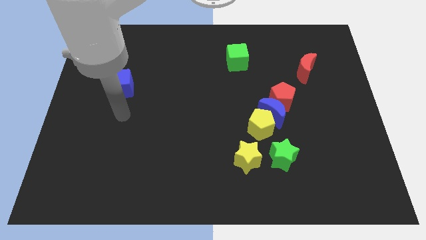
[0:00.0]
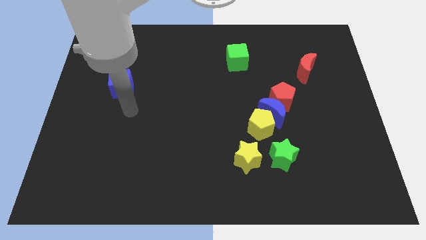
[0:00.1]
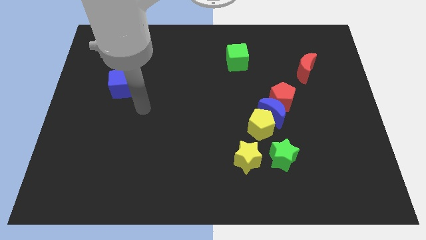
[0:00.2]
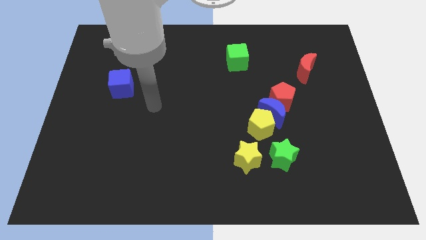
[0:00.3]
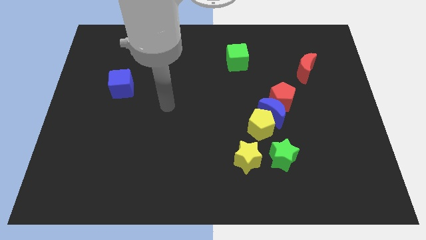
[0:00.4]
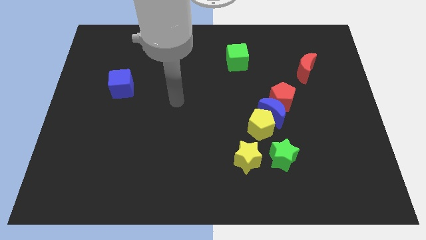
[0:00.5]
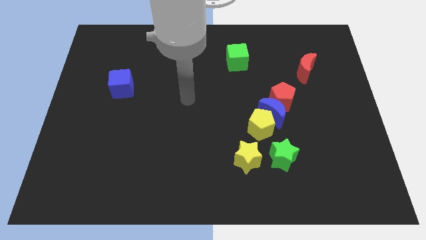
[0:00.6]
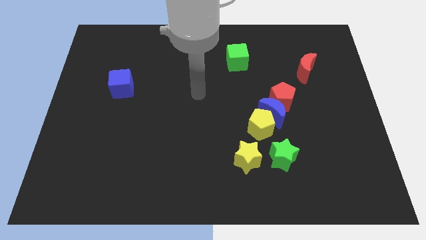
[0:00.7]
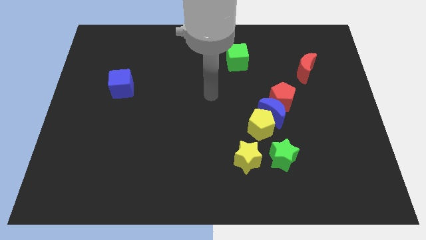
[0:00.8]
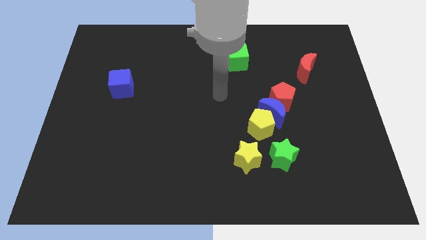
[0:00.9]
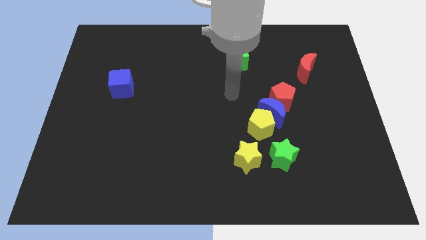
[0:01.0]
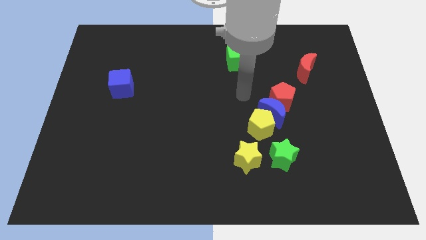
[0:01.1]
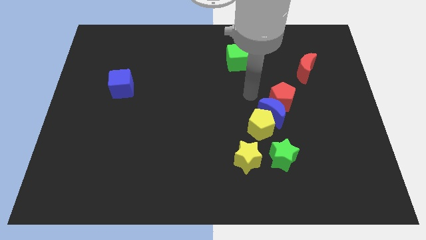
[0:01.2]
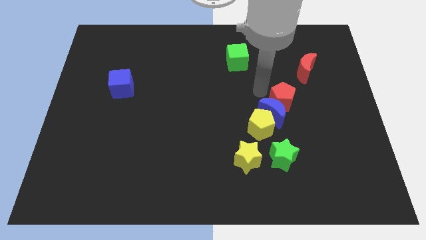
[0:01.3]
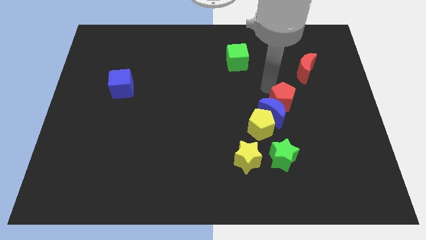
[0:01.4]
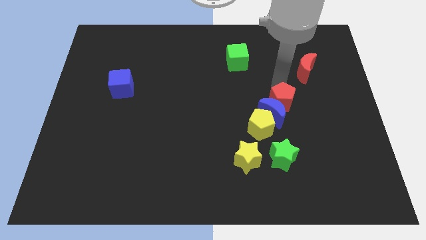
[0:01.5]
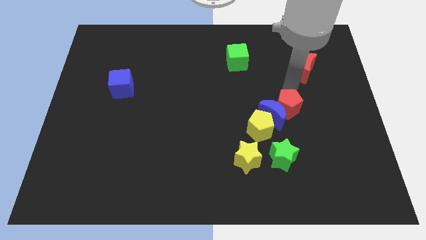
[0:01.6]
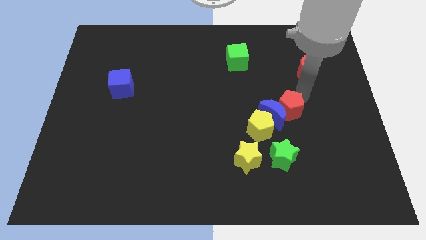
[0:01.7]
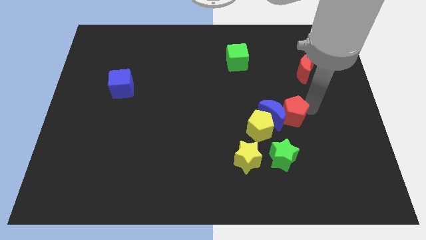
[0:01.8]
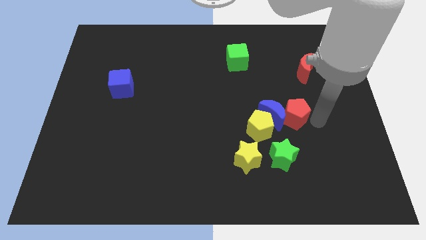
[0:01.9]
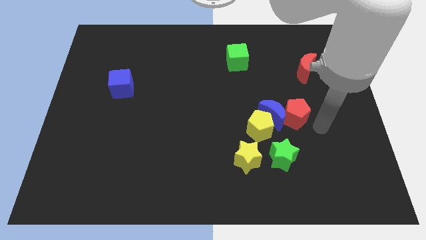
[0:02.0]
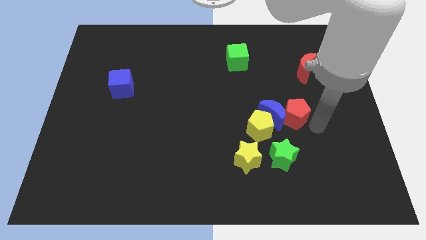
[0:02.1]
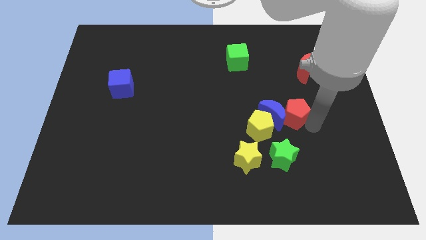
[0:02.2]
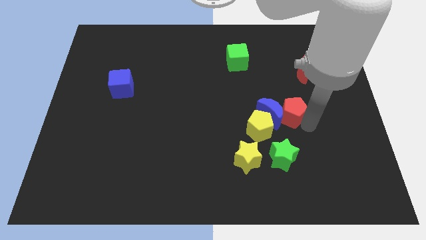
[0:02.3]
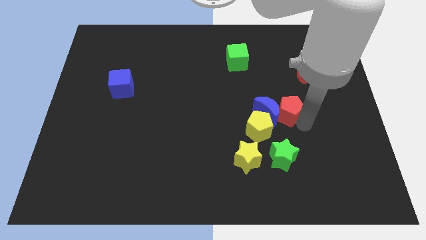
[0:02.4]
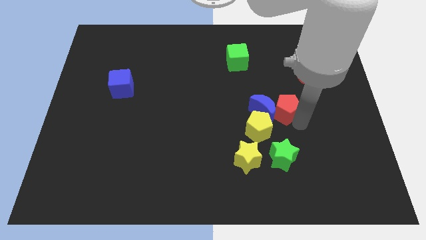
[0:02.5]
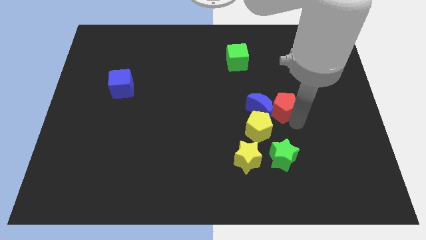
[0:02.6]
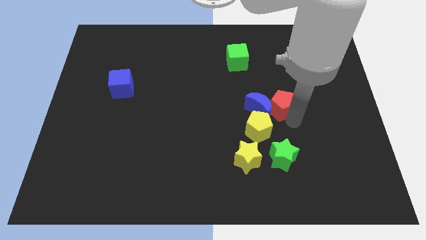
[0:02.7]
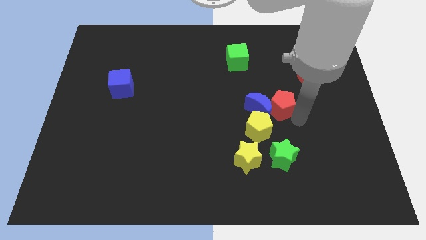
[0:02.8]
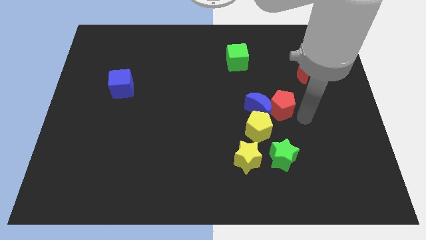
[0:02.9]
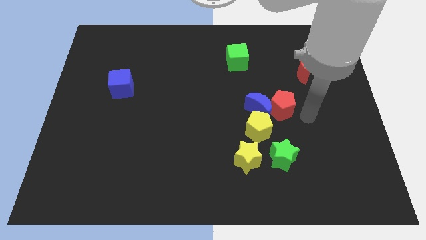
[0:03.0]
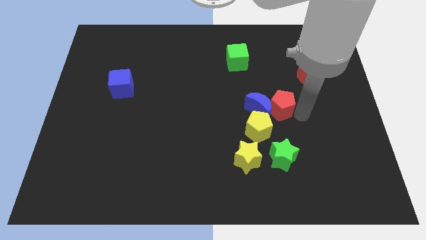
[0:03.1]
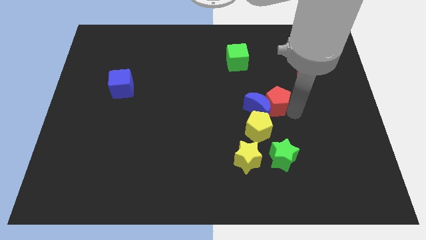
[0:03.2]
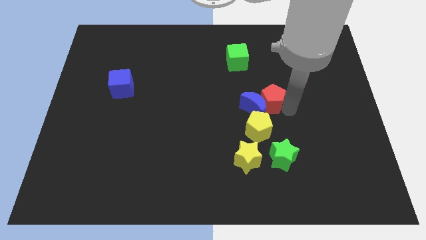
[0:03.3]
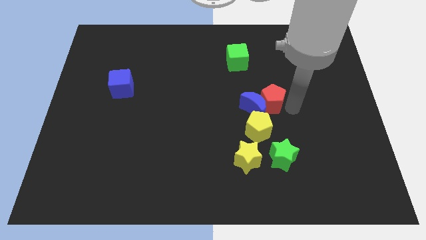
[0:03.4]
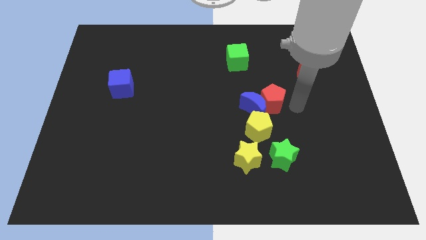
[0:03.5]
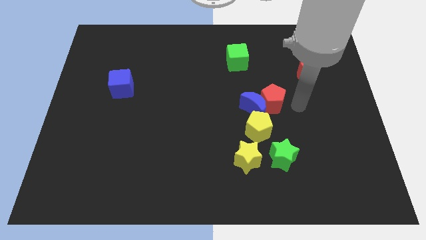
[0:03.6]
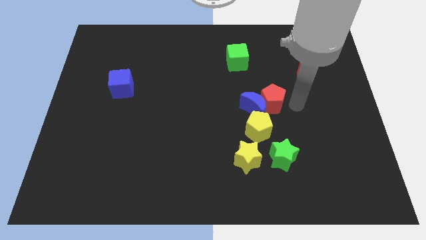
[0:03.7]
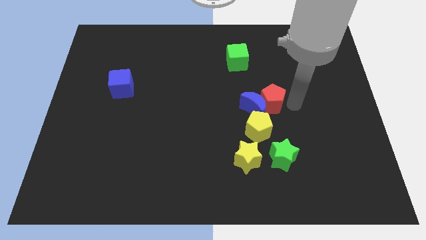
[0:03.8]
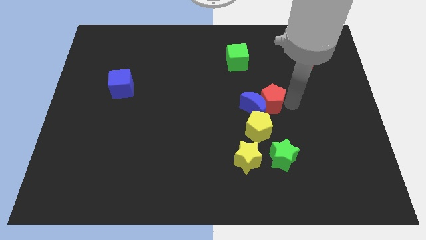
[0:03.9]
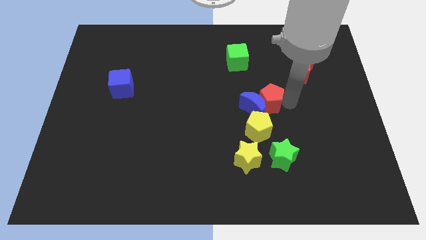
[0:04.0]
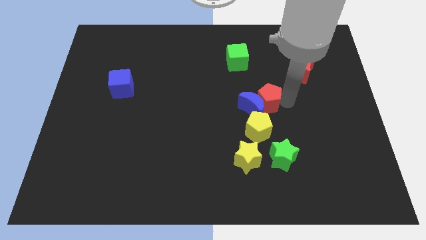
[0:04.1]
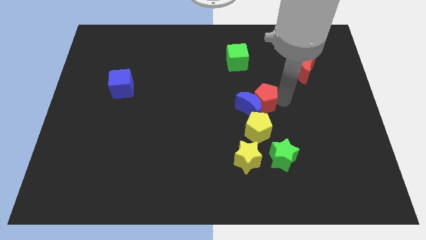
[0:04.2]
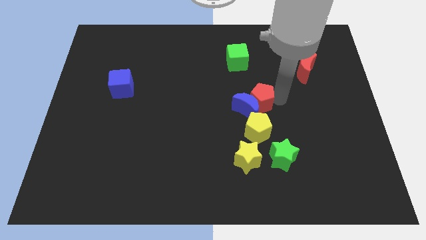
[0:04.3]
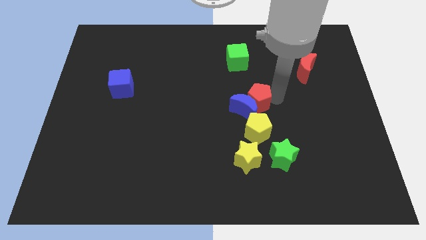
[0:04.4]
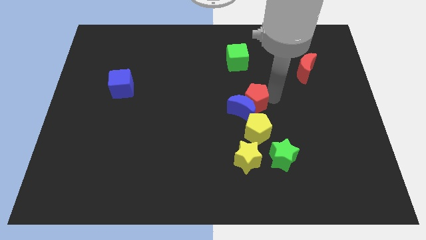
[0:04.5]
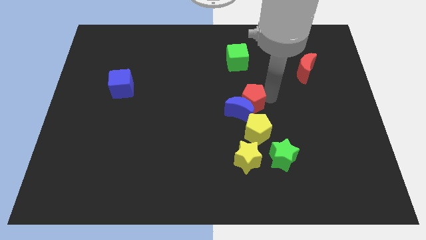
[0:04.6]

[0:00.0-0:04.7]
slide the red pentagon left a little

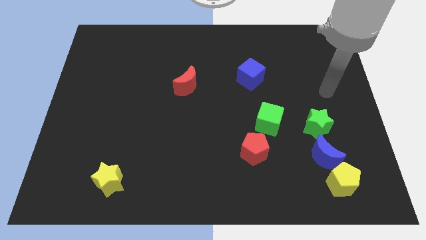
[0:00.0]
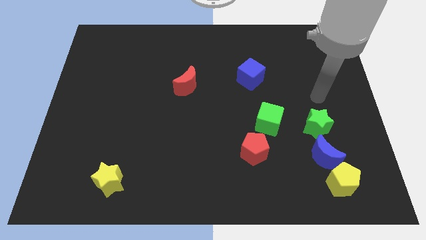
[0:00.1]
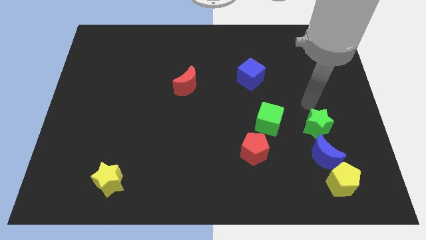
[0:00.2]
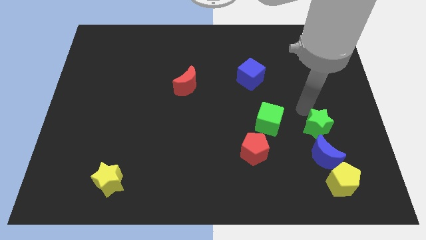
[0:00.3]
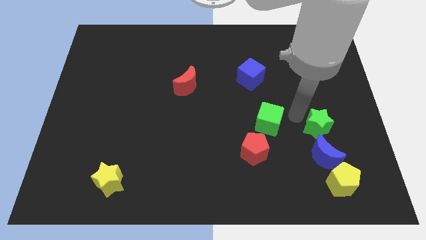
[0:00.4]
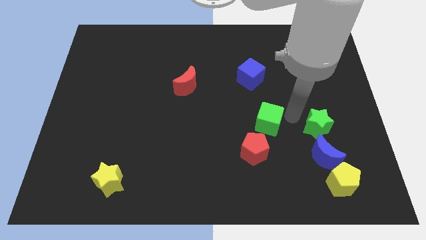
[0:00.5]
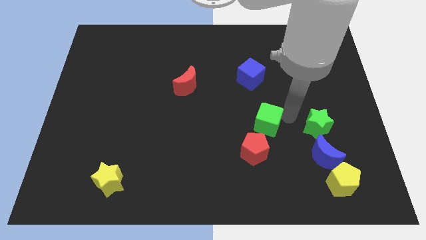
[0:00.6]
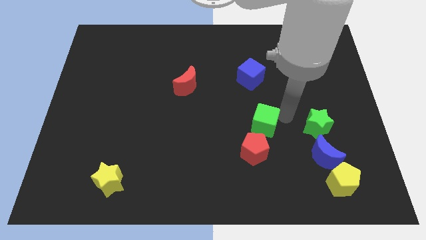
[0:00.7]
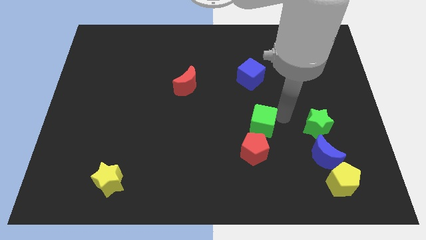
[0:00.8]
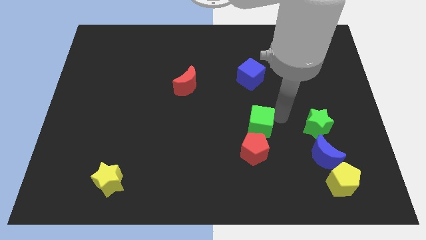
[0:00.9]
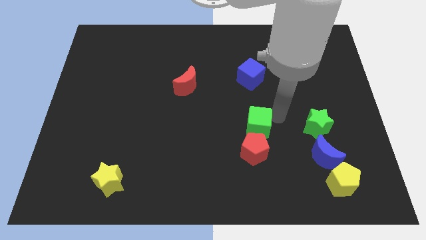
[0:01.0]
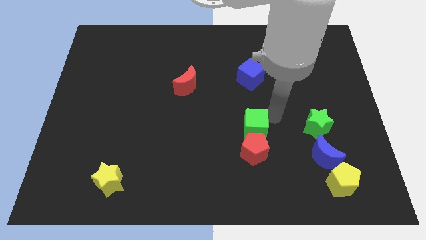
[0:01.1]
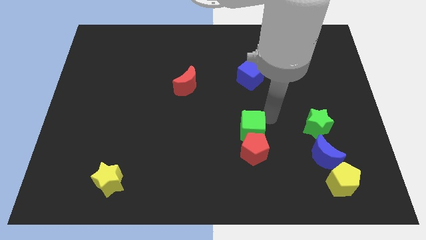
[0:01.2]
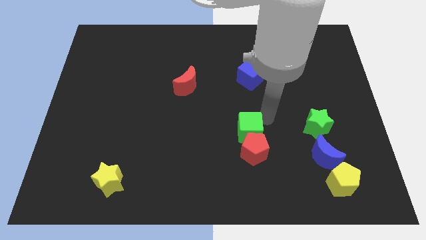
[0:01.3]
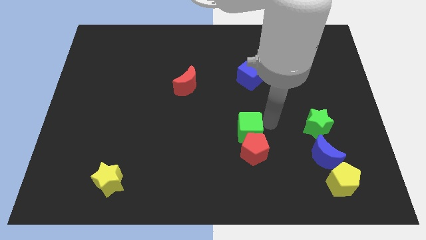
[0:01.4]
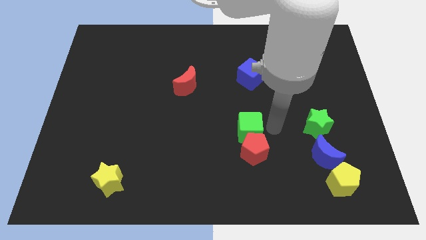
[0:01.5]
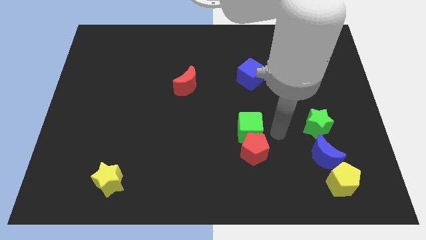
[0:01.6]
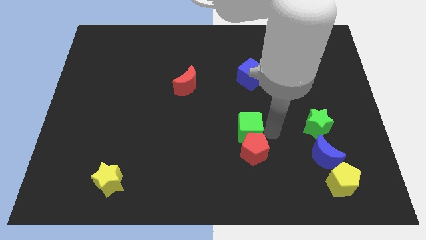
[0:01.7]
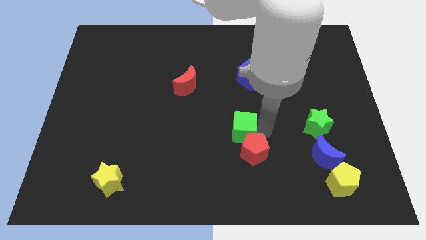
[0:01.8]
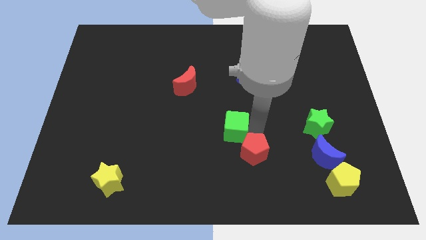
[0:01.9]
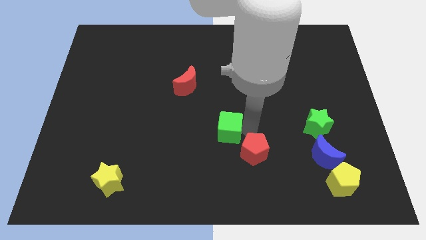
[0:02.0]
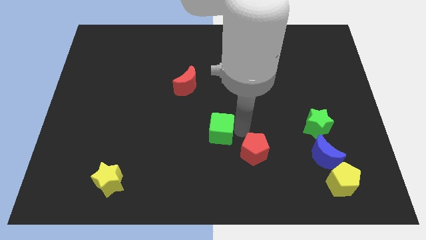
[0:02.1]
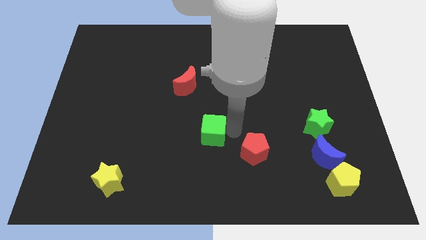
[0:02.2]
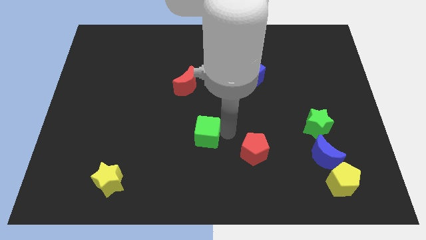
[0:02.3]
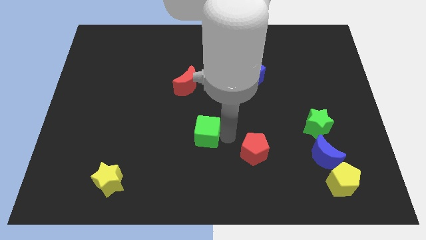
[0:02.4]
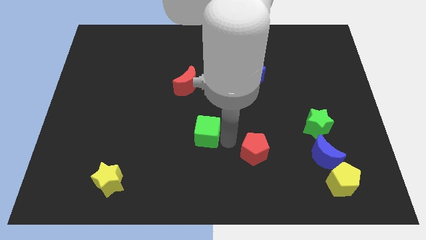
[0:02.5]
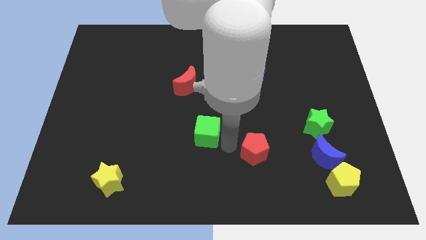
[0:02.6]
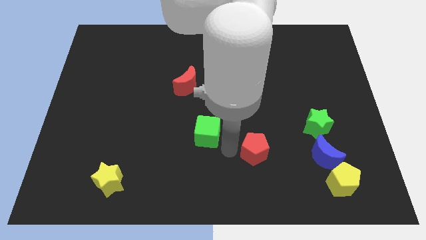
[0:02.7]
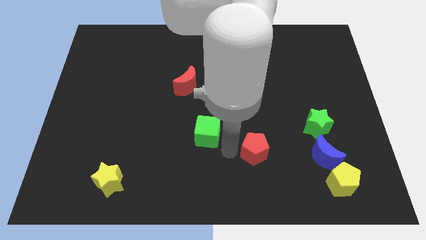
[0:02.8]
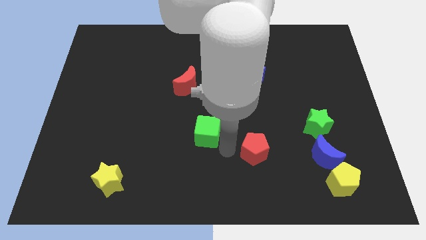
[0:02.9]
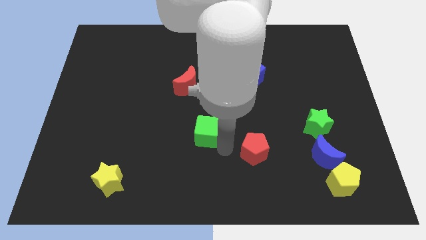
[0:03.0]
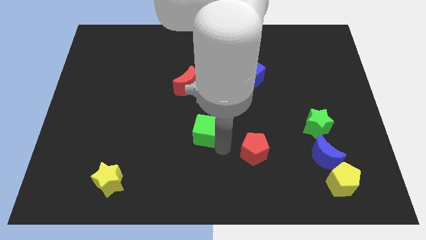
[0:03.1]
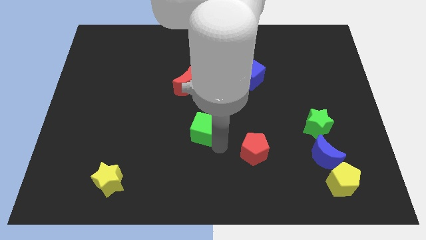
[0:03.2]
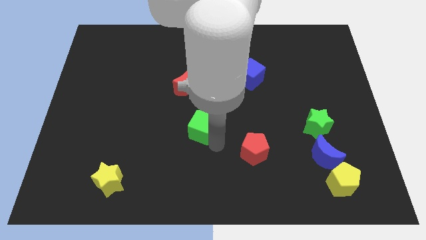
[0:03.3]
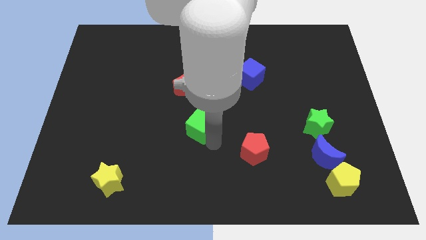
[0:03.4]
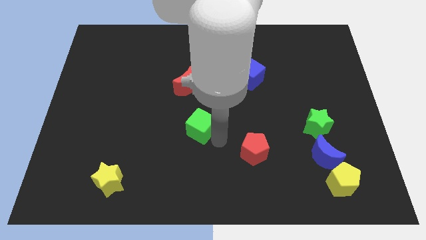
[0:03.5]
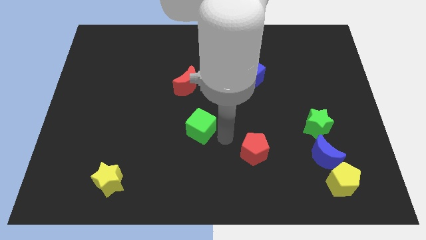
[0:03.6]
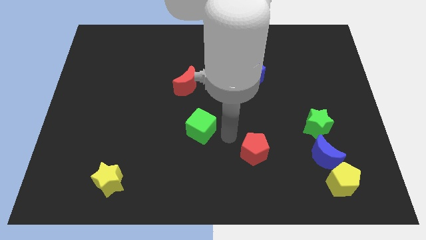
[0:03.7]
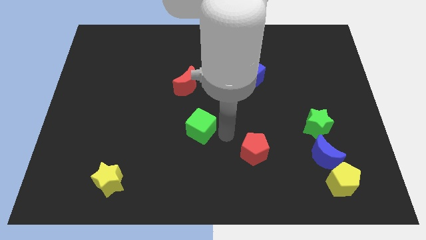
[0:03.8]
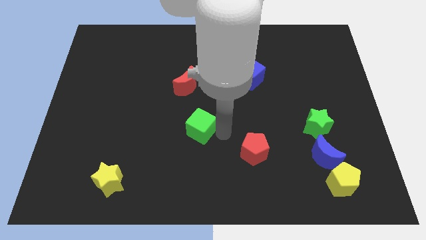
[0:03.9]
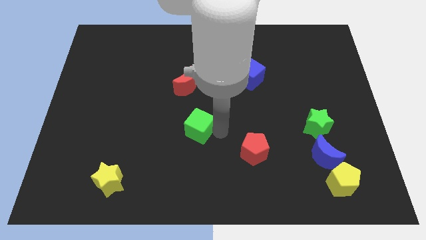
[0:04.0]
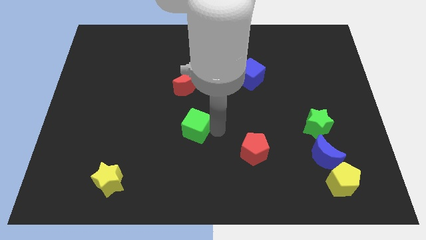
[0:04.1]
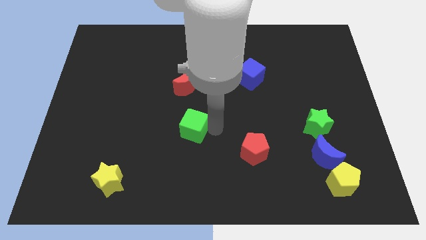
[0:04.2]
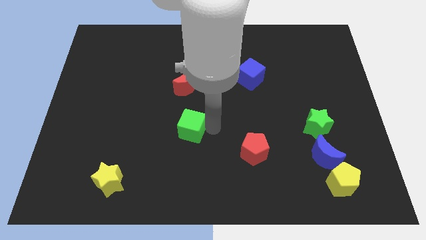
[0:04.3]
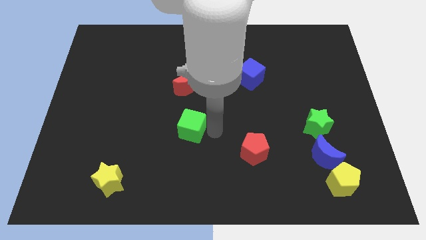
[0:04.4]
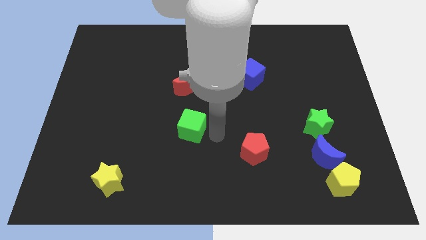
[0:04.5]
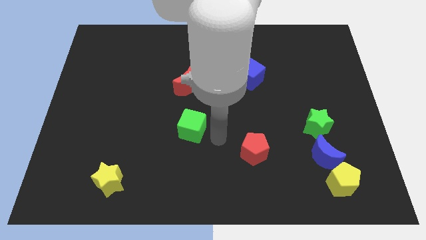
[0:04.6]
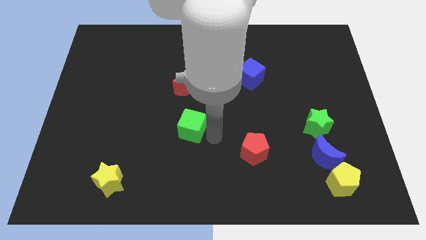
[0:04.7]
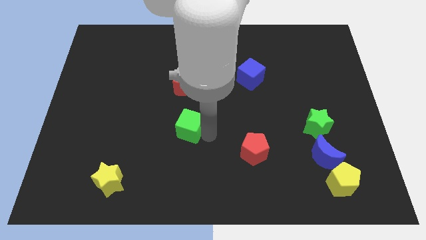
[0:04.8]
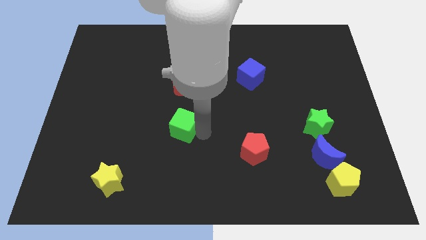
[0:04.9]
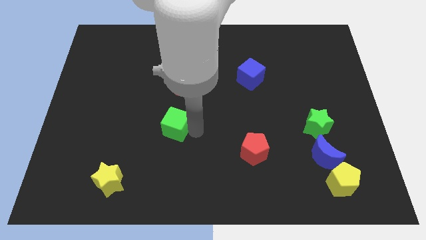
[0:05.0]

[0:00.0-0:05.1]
move the green cube left
